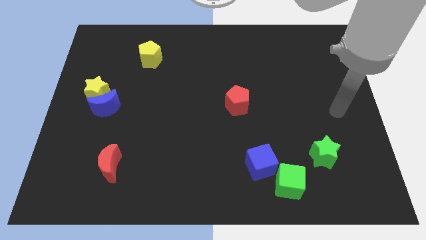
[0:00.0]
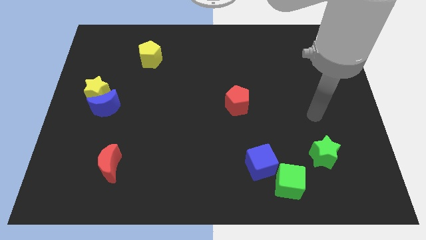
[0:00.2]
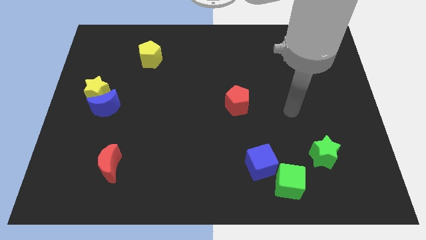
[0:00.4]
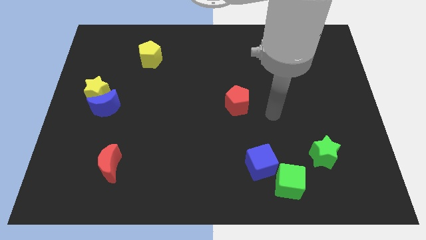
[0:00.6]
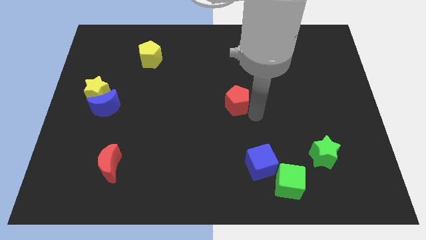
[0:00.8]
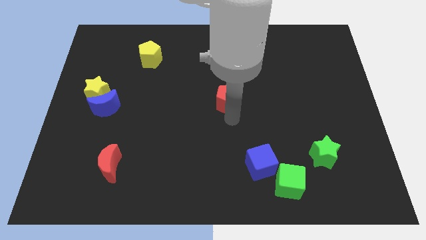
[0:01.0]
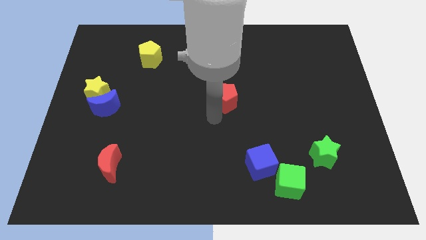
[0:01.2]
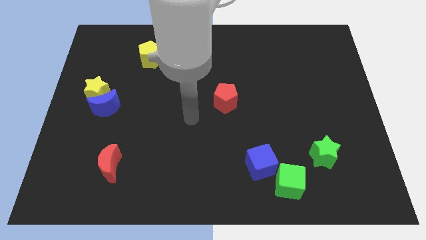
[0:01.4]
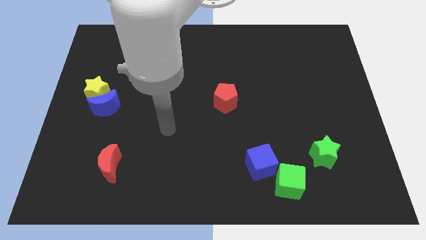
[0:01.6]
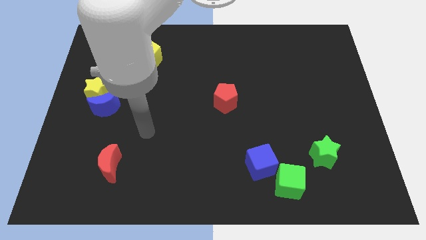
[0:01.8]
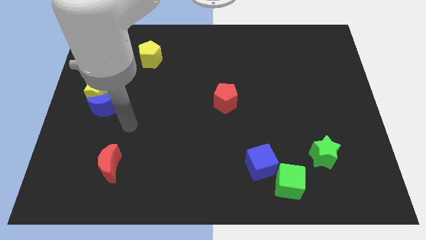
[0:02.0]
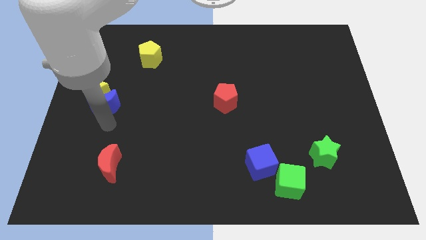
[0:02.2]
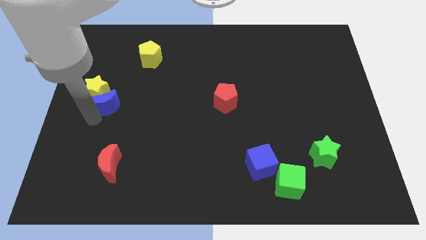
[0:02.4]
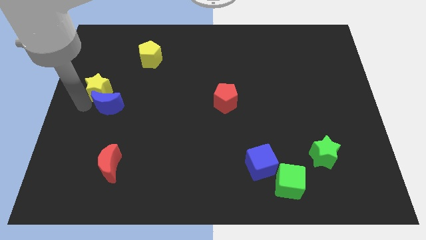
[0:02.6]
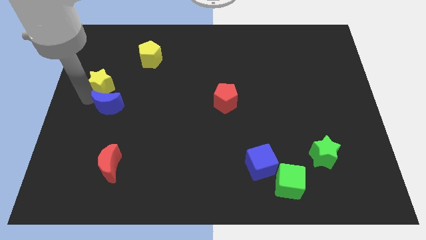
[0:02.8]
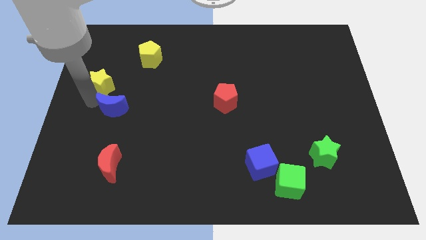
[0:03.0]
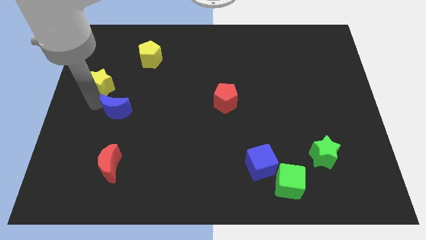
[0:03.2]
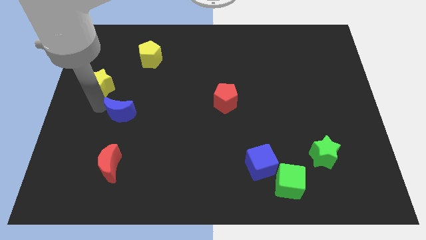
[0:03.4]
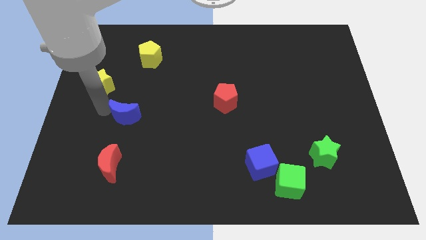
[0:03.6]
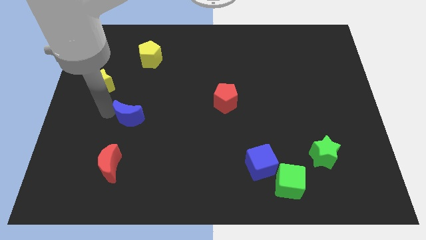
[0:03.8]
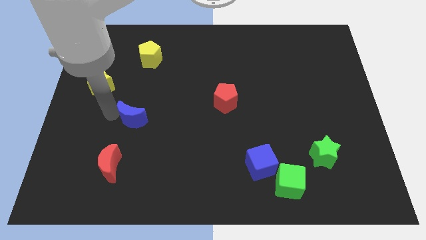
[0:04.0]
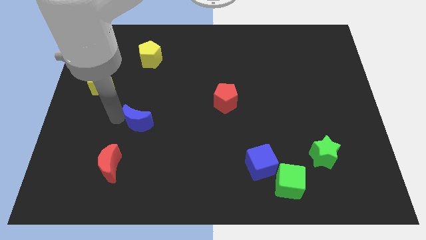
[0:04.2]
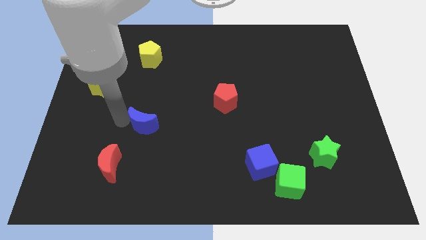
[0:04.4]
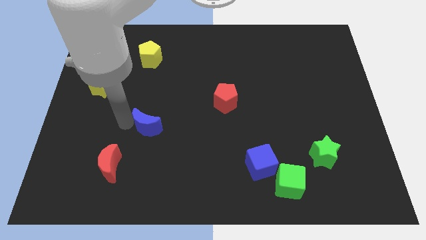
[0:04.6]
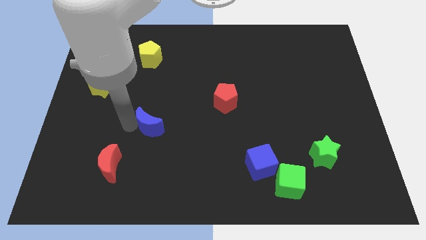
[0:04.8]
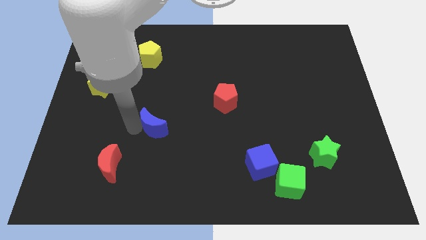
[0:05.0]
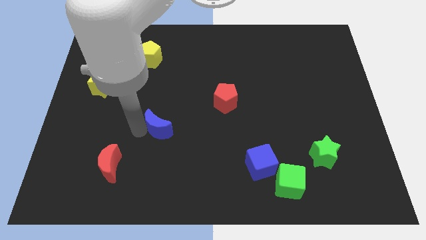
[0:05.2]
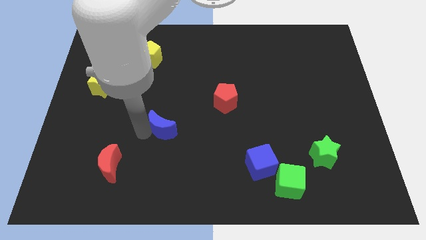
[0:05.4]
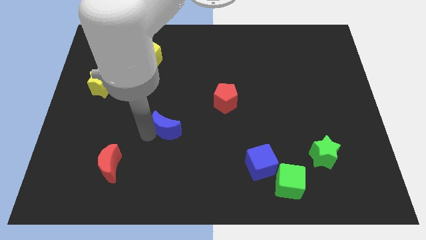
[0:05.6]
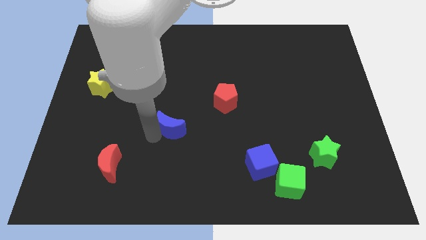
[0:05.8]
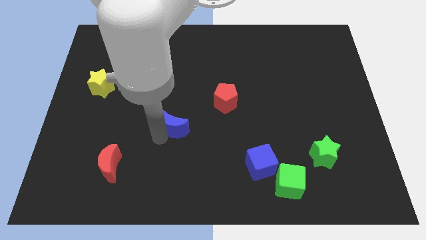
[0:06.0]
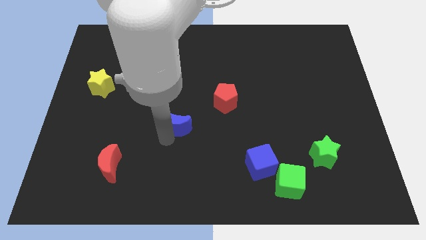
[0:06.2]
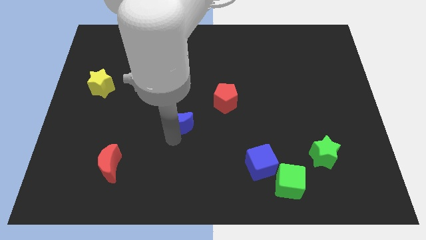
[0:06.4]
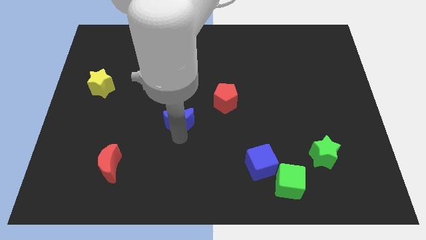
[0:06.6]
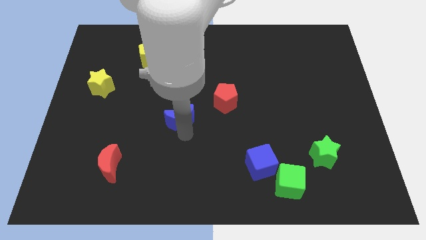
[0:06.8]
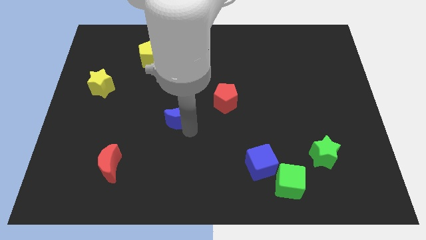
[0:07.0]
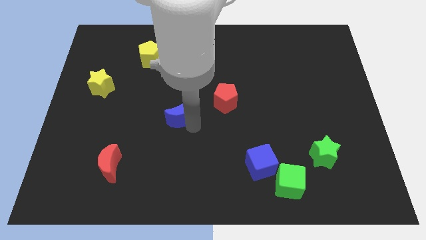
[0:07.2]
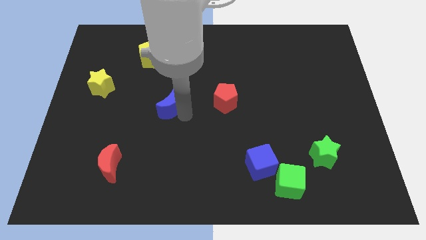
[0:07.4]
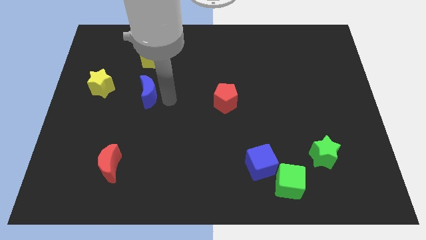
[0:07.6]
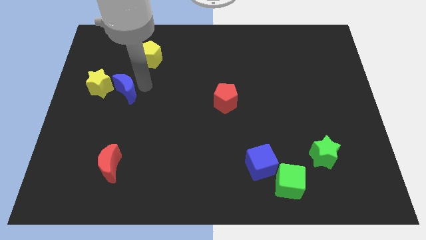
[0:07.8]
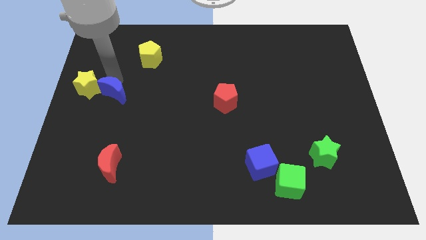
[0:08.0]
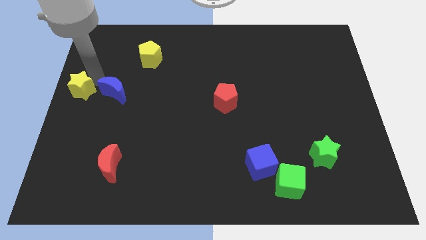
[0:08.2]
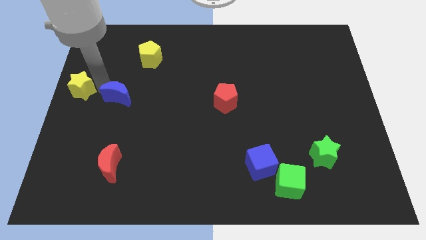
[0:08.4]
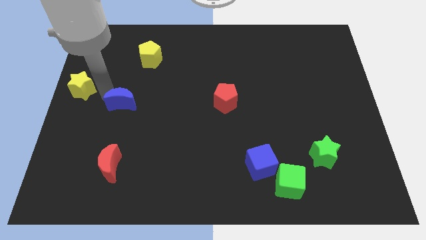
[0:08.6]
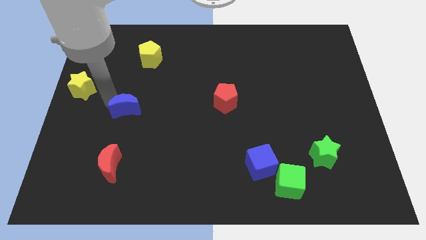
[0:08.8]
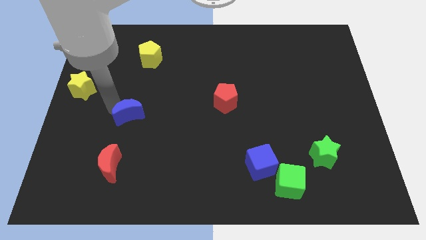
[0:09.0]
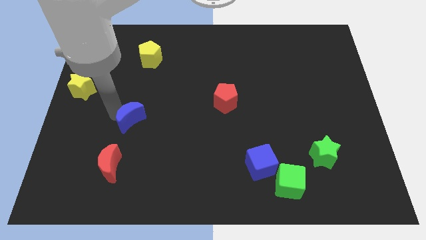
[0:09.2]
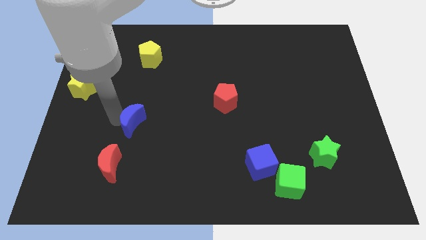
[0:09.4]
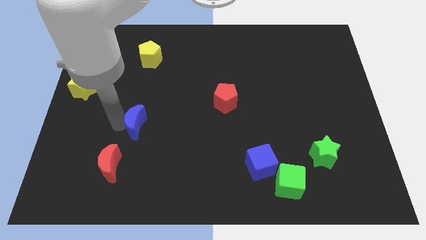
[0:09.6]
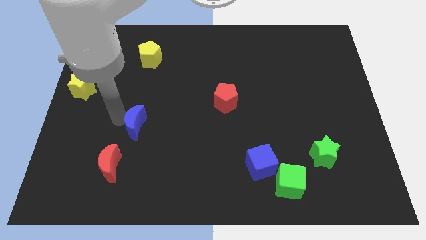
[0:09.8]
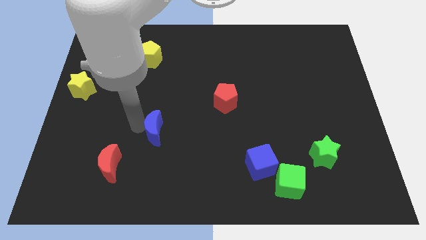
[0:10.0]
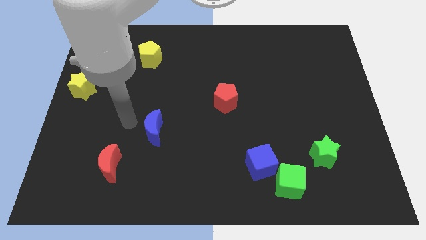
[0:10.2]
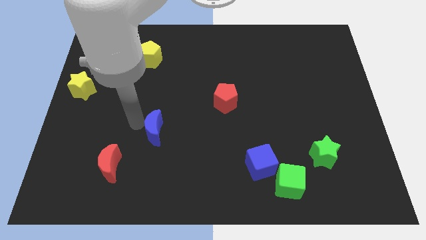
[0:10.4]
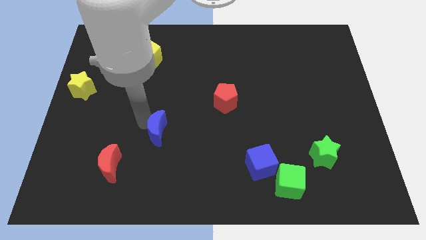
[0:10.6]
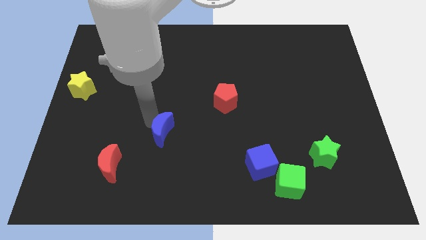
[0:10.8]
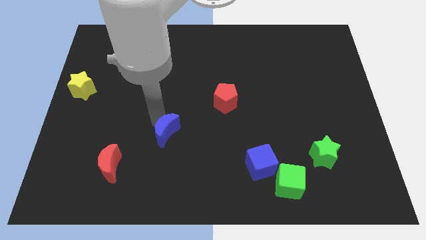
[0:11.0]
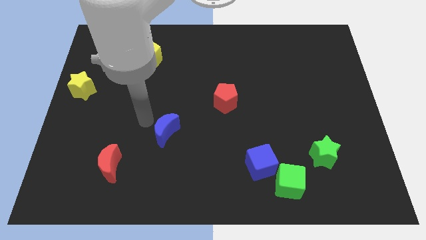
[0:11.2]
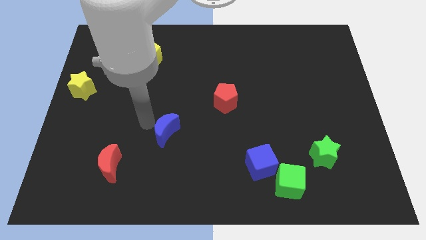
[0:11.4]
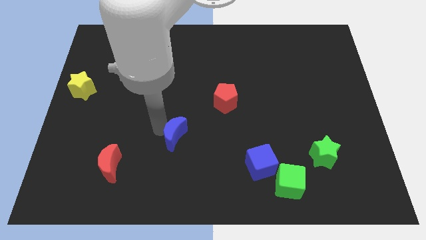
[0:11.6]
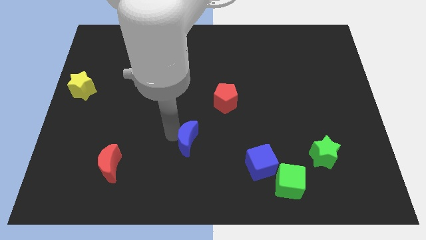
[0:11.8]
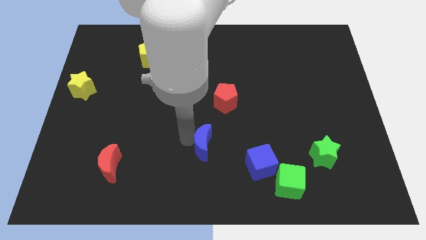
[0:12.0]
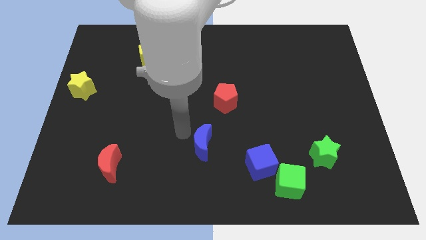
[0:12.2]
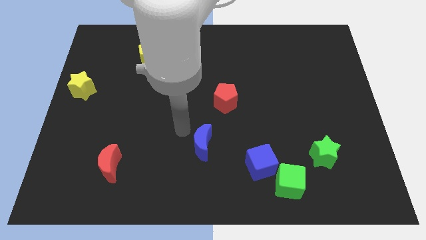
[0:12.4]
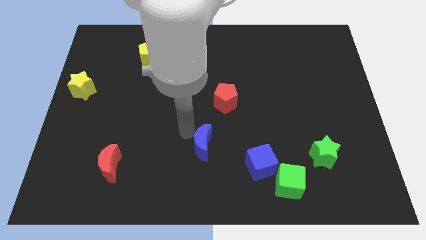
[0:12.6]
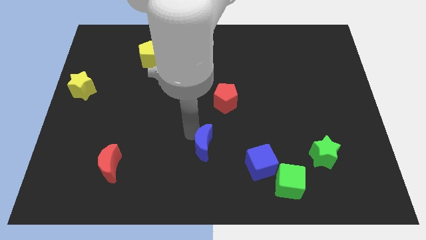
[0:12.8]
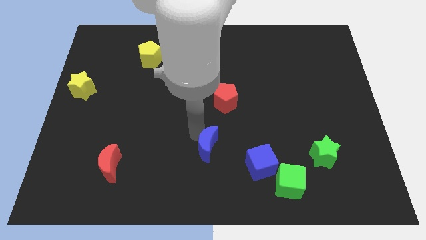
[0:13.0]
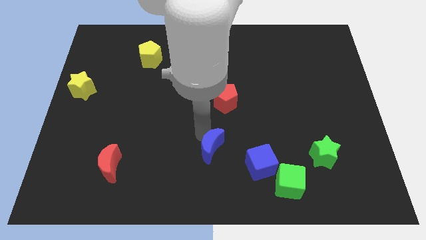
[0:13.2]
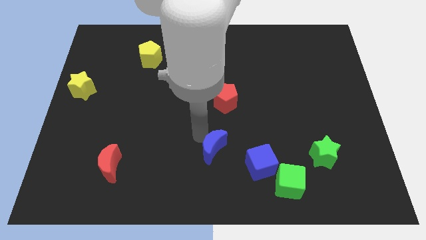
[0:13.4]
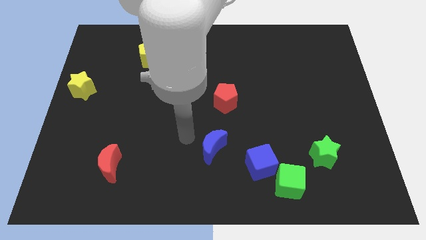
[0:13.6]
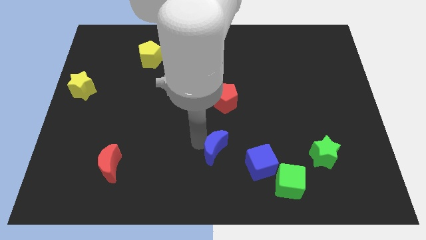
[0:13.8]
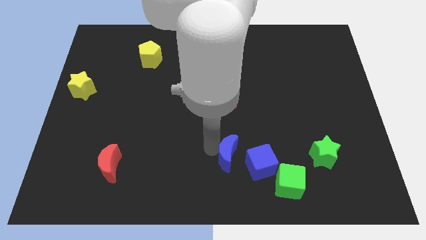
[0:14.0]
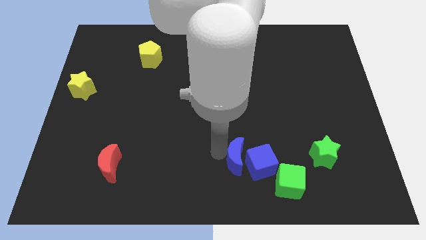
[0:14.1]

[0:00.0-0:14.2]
put the blue moon towards the blue cube

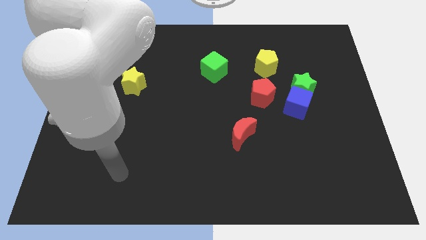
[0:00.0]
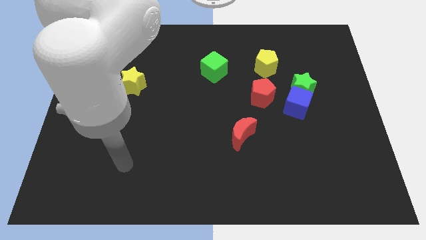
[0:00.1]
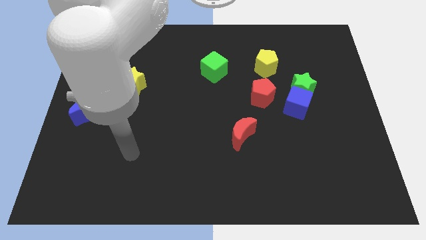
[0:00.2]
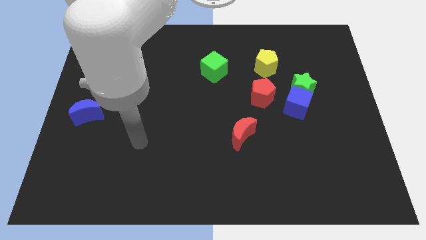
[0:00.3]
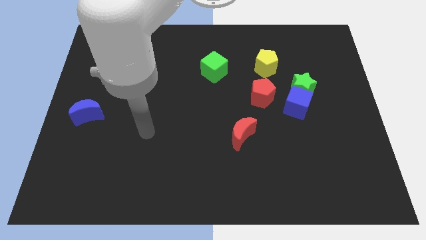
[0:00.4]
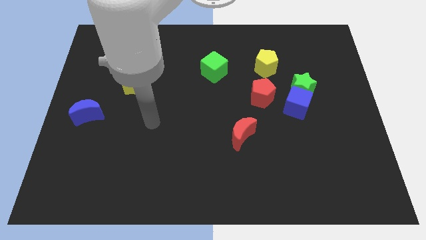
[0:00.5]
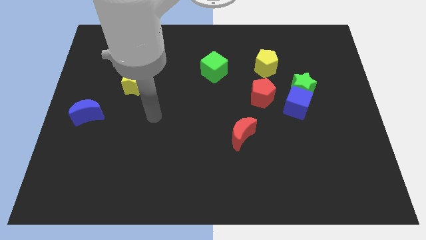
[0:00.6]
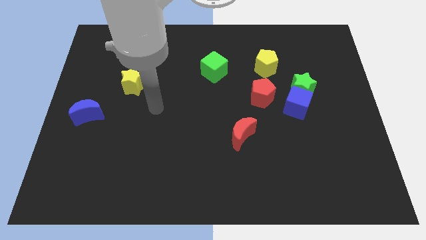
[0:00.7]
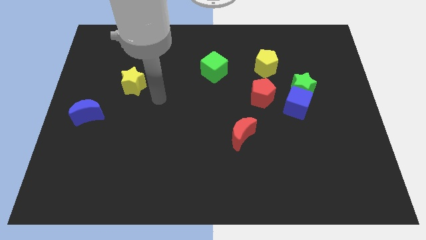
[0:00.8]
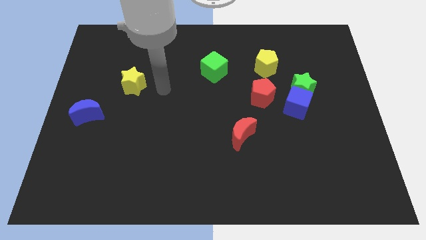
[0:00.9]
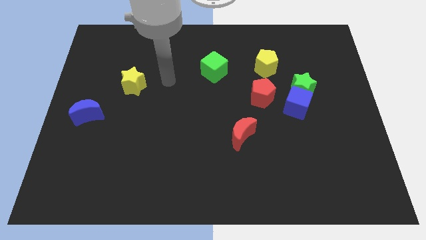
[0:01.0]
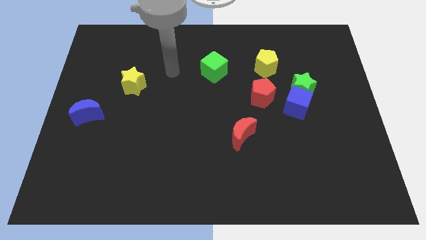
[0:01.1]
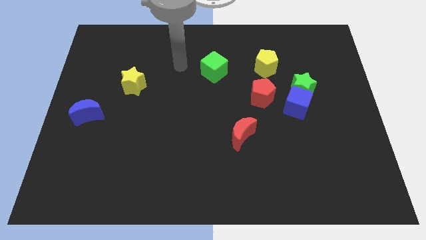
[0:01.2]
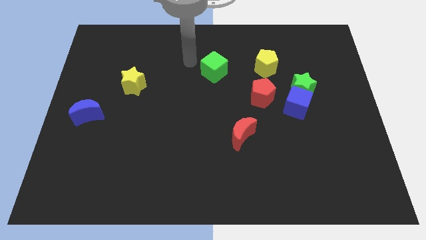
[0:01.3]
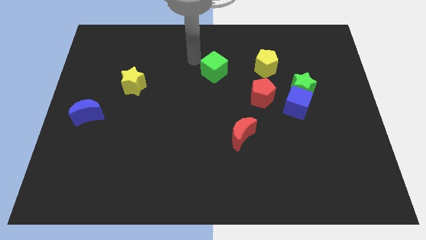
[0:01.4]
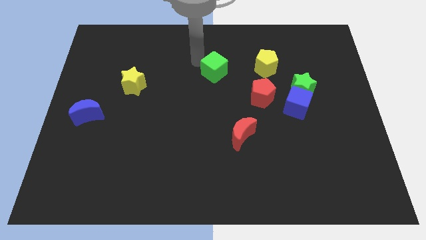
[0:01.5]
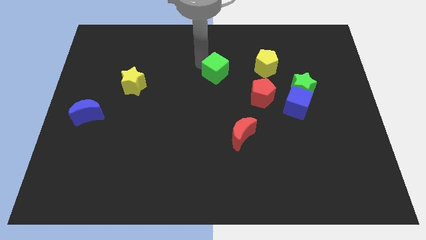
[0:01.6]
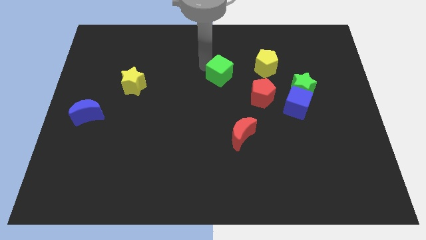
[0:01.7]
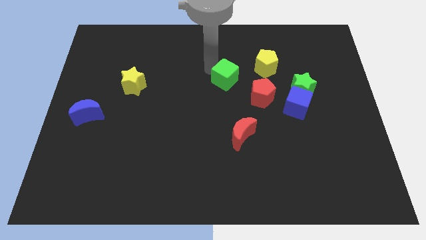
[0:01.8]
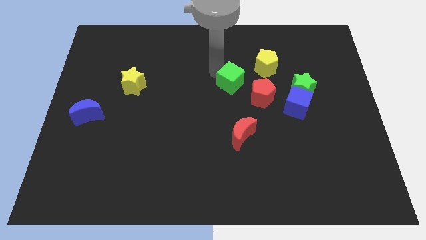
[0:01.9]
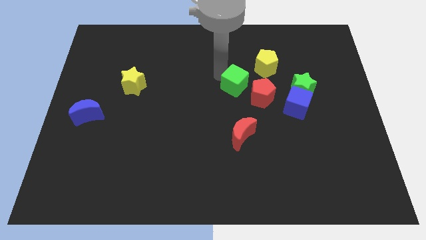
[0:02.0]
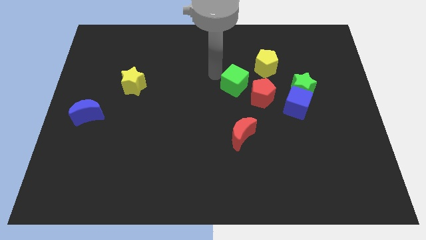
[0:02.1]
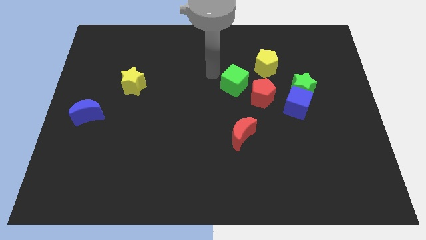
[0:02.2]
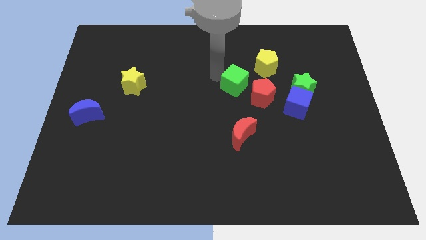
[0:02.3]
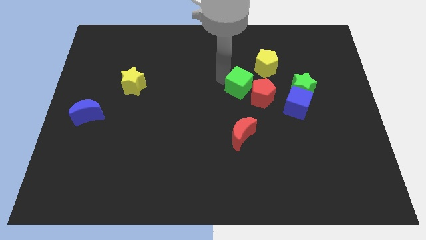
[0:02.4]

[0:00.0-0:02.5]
push the green cube towards the red pentagon
